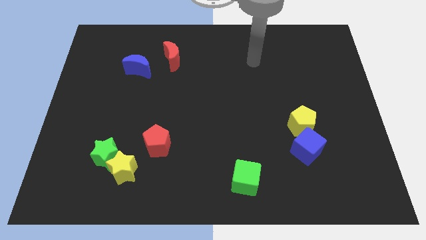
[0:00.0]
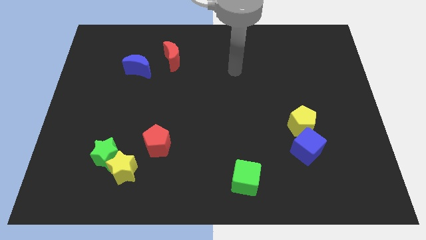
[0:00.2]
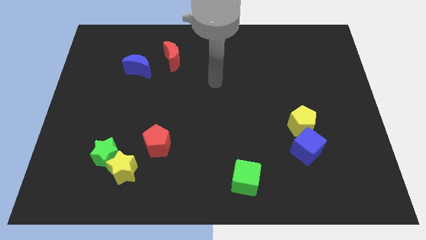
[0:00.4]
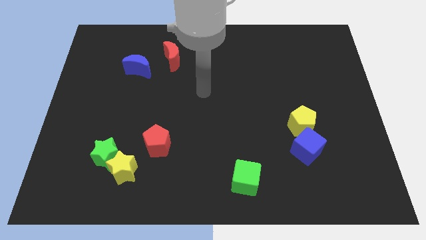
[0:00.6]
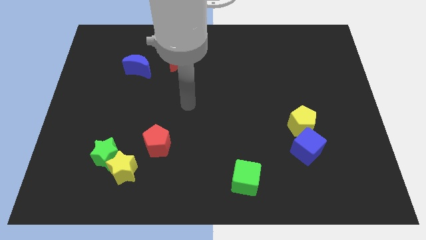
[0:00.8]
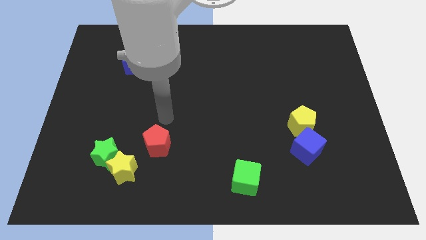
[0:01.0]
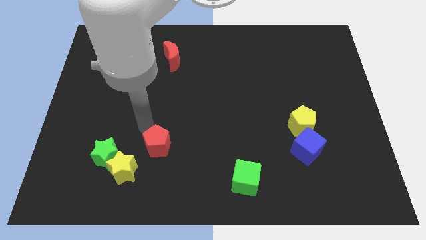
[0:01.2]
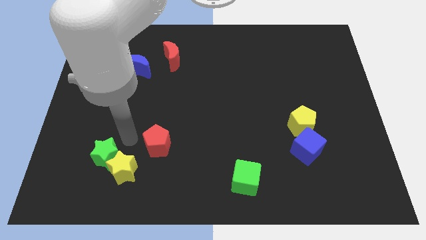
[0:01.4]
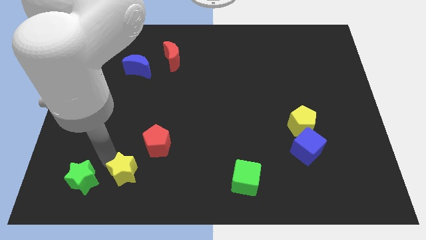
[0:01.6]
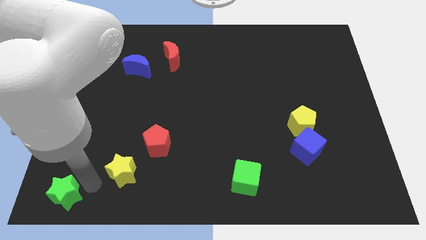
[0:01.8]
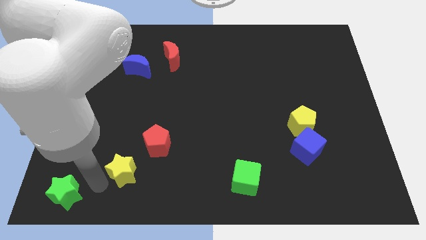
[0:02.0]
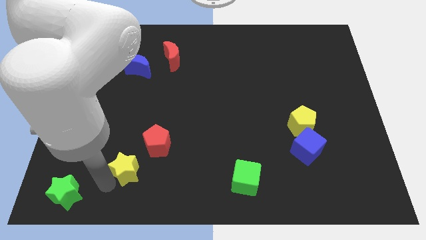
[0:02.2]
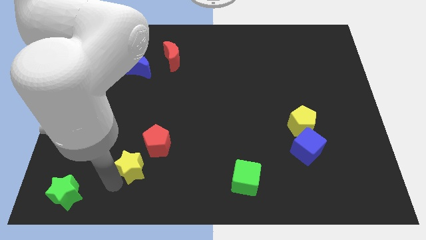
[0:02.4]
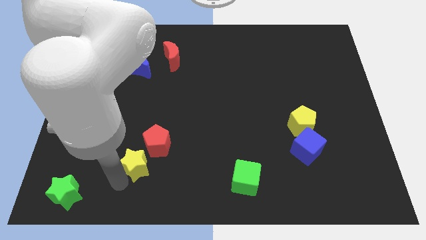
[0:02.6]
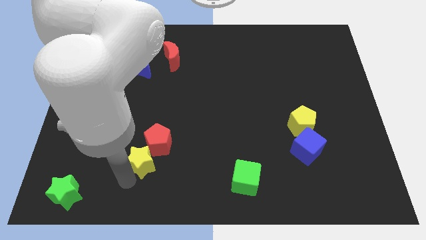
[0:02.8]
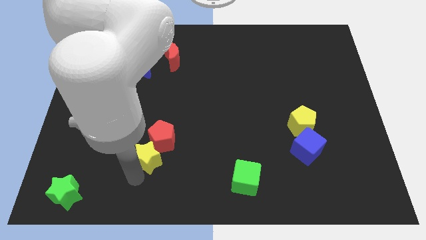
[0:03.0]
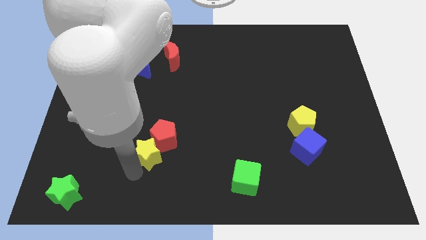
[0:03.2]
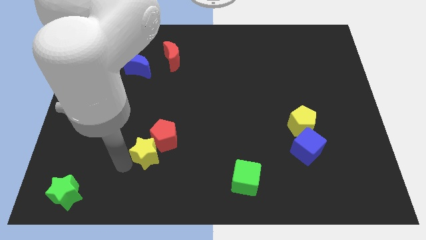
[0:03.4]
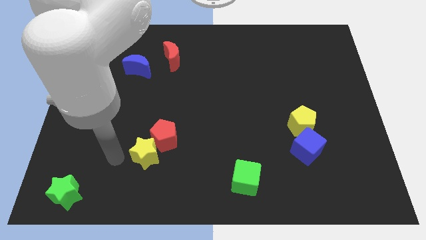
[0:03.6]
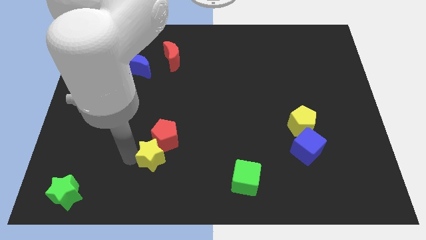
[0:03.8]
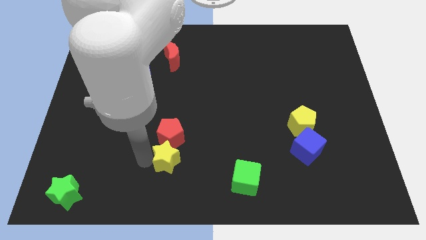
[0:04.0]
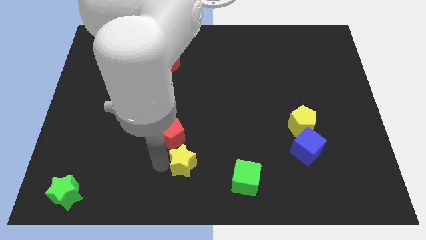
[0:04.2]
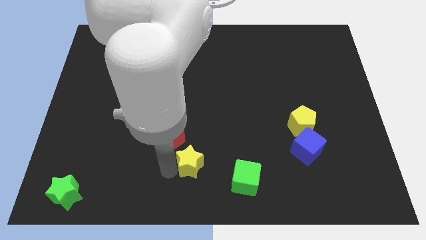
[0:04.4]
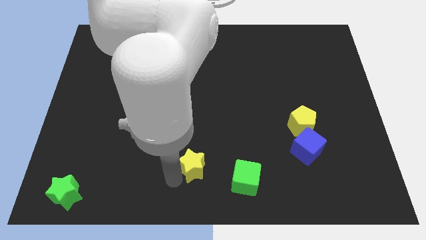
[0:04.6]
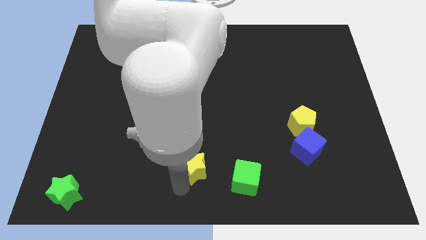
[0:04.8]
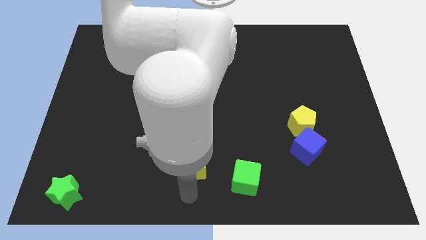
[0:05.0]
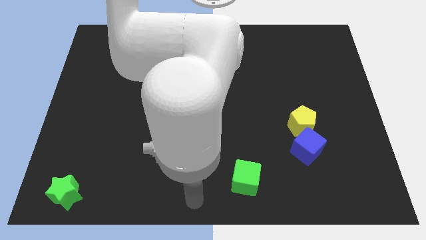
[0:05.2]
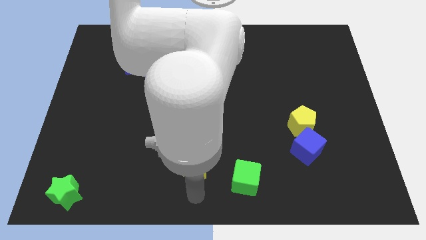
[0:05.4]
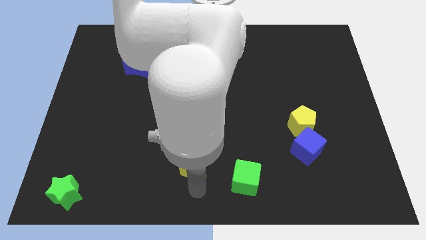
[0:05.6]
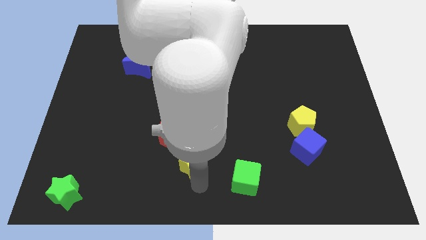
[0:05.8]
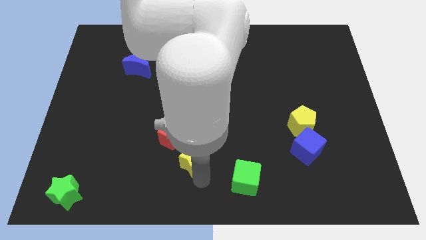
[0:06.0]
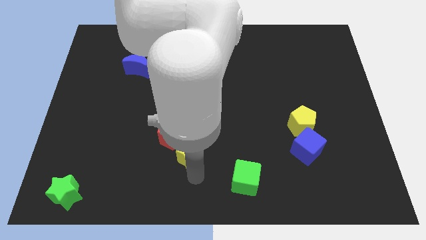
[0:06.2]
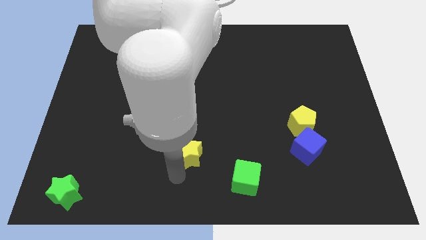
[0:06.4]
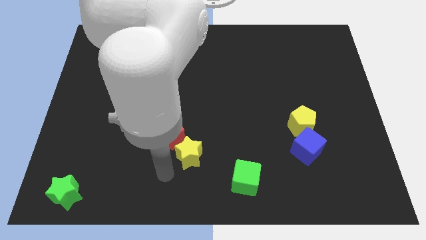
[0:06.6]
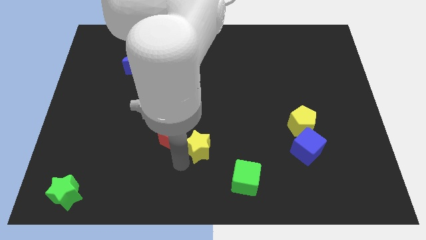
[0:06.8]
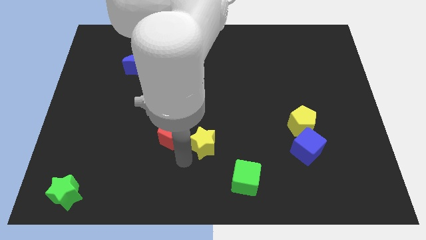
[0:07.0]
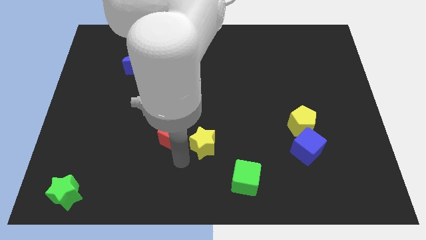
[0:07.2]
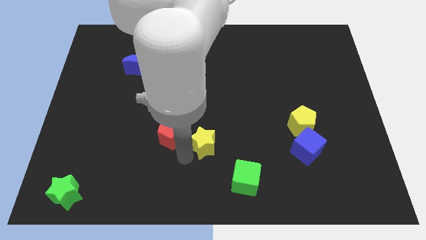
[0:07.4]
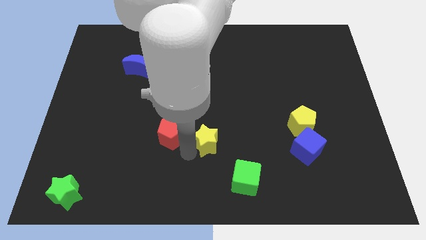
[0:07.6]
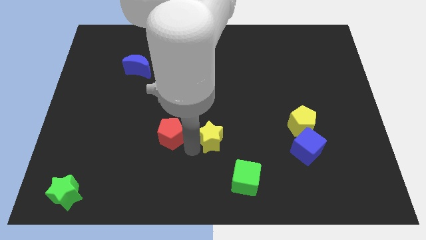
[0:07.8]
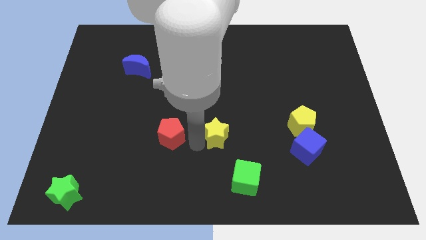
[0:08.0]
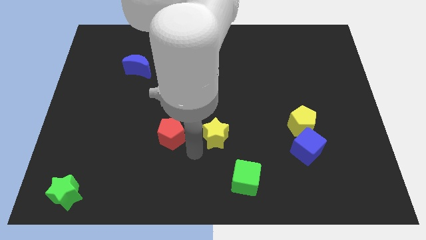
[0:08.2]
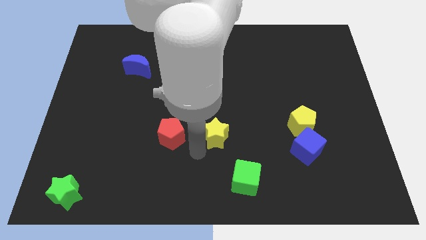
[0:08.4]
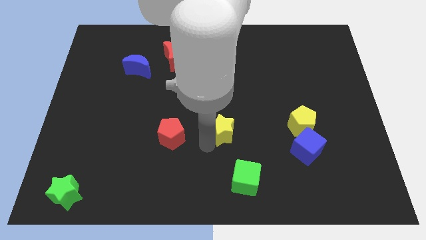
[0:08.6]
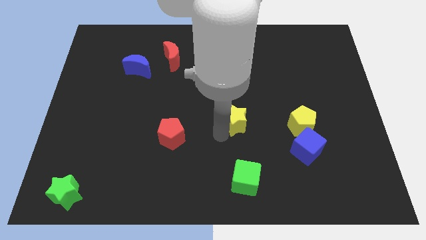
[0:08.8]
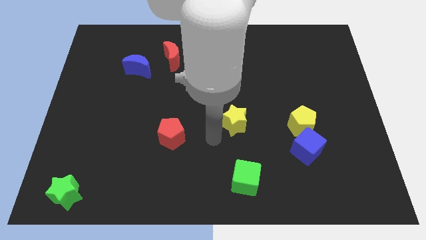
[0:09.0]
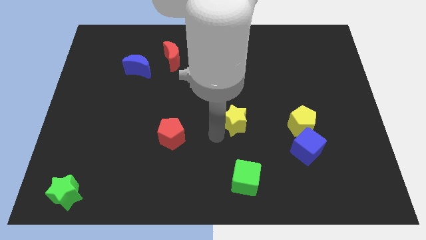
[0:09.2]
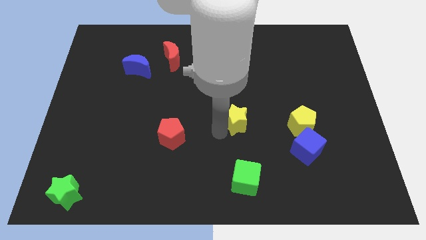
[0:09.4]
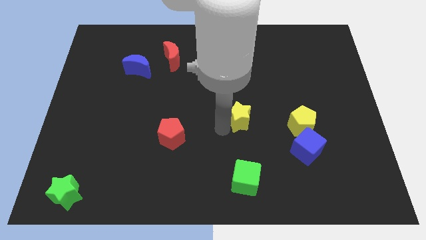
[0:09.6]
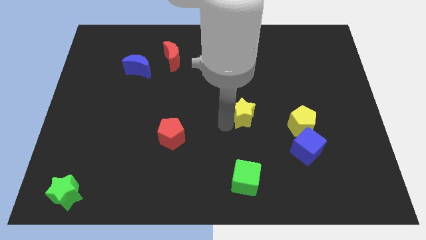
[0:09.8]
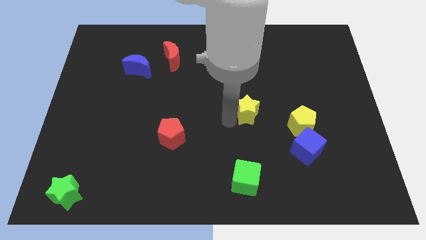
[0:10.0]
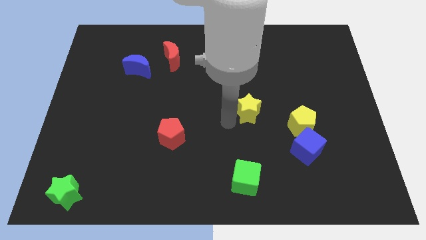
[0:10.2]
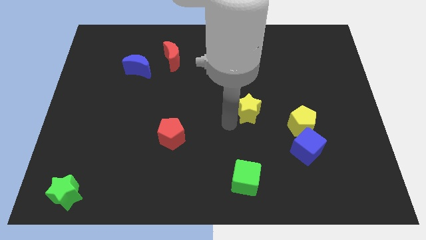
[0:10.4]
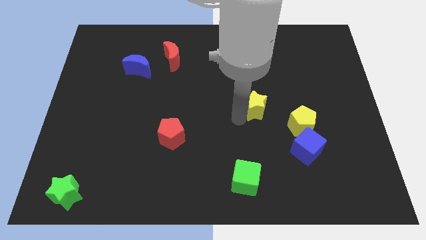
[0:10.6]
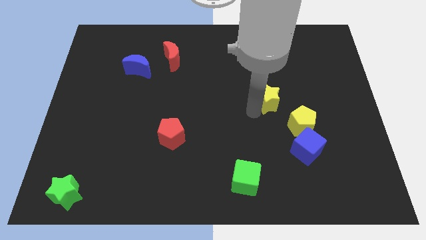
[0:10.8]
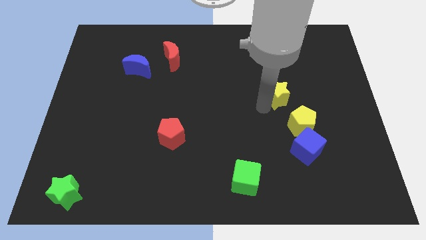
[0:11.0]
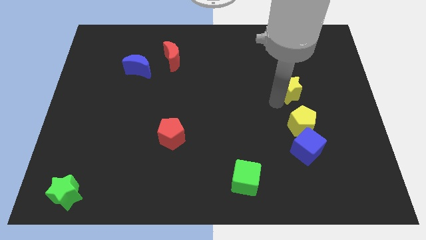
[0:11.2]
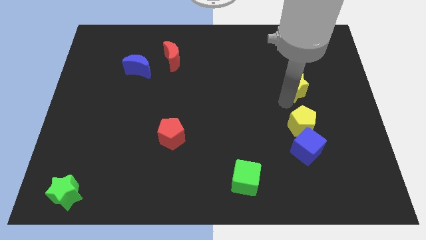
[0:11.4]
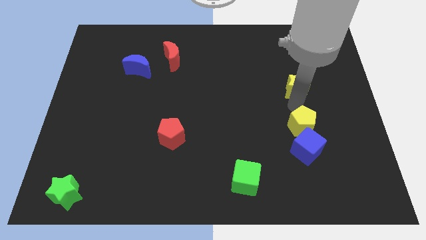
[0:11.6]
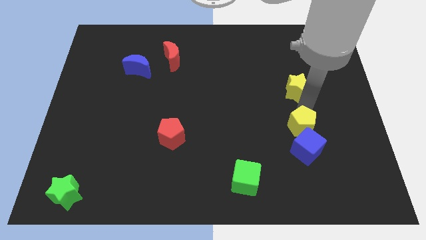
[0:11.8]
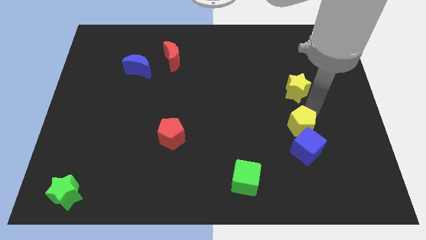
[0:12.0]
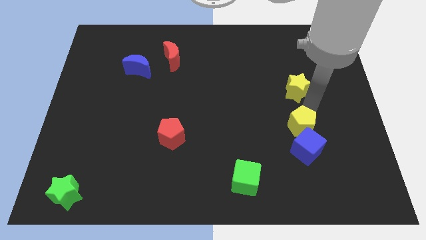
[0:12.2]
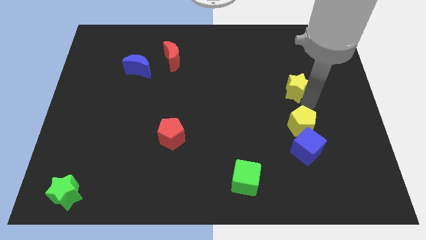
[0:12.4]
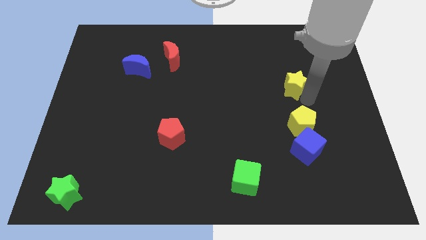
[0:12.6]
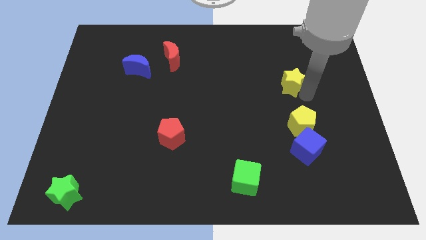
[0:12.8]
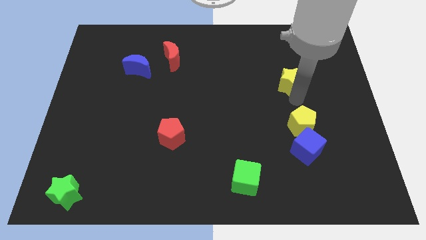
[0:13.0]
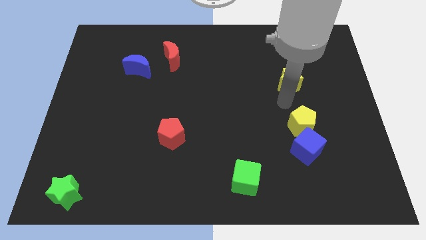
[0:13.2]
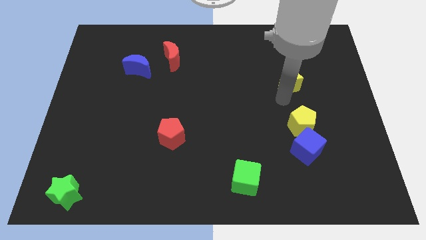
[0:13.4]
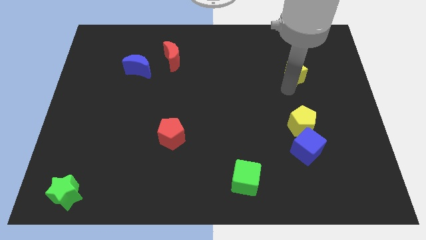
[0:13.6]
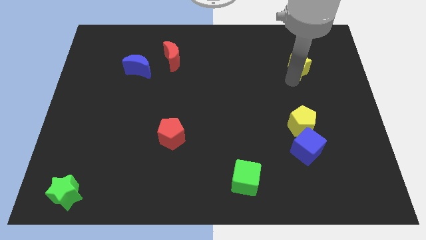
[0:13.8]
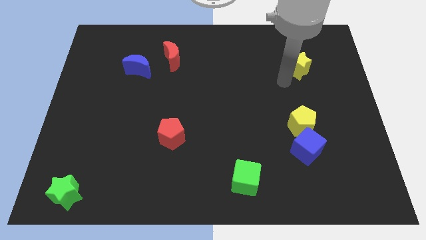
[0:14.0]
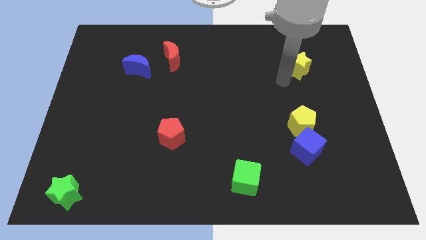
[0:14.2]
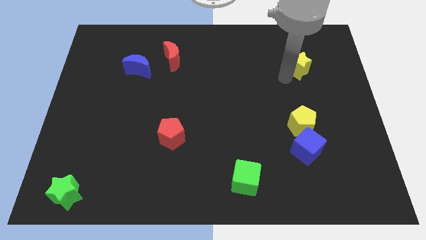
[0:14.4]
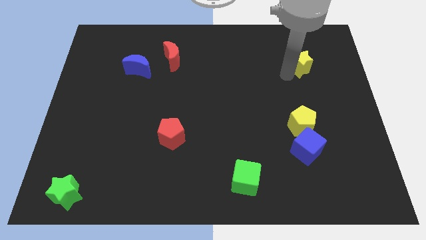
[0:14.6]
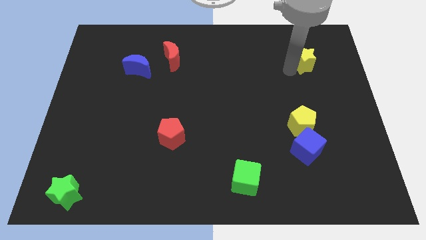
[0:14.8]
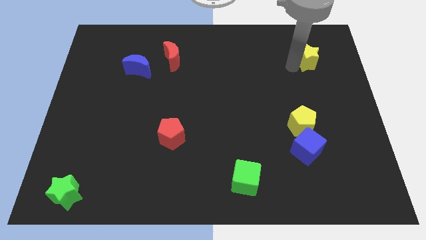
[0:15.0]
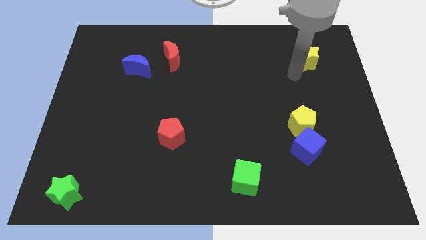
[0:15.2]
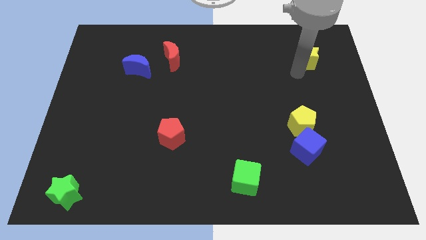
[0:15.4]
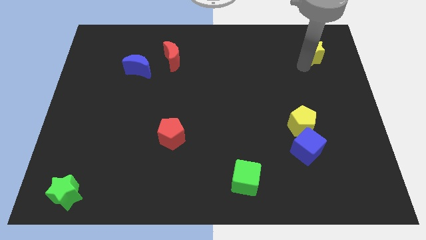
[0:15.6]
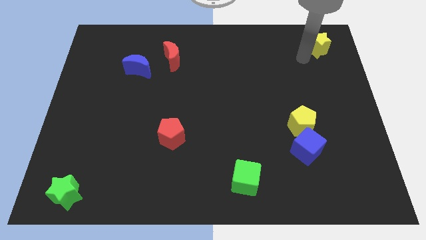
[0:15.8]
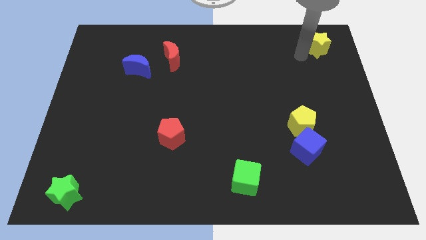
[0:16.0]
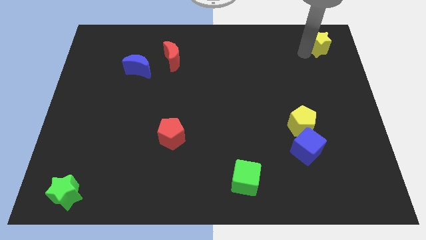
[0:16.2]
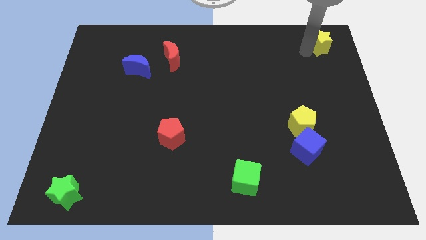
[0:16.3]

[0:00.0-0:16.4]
push the yellow star to the upper right corner
